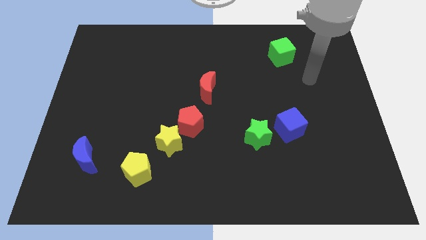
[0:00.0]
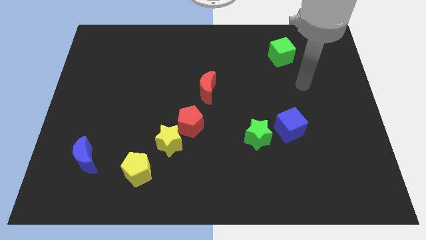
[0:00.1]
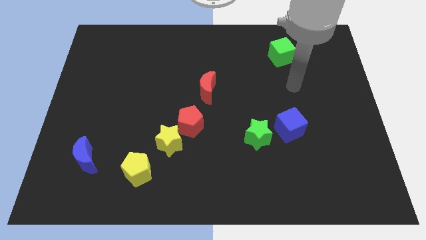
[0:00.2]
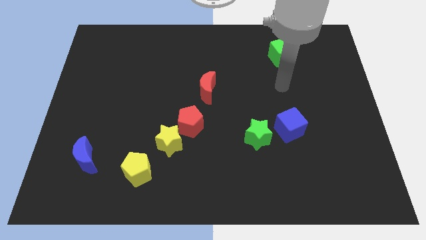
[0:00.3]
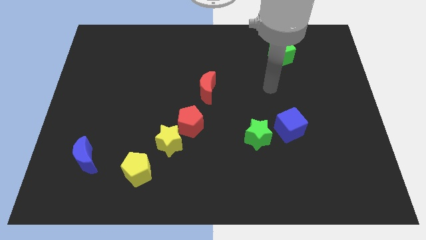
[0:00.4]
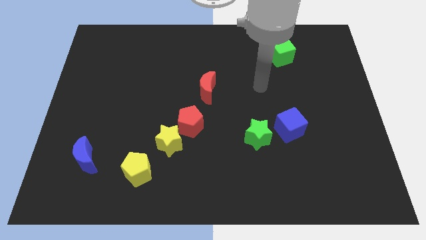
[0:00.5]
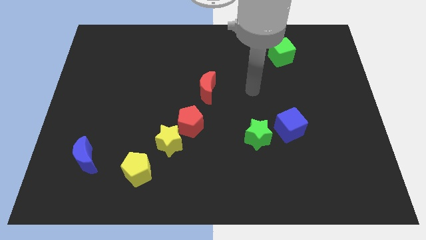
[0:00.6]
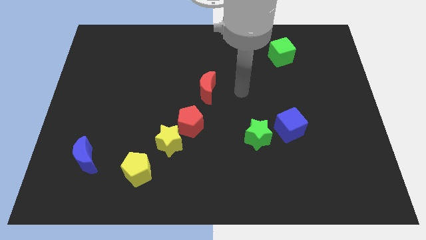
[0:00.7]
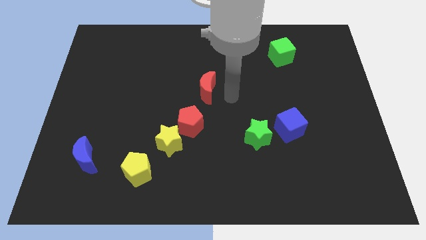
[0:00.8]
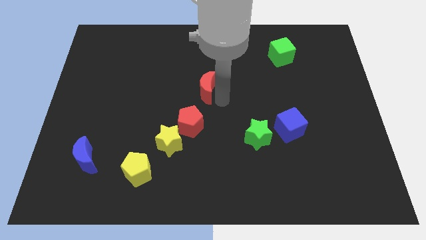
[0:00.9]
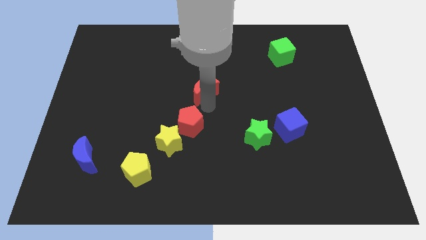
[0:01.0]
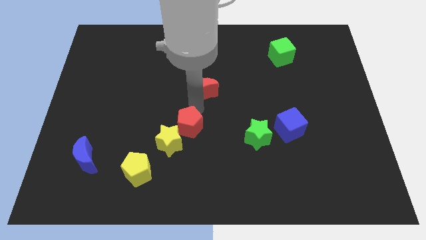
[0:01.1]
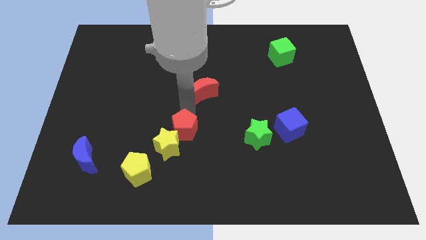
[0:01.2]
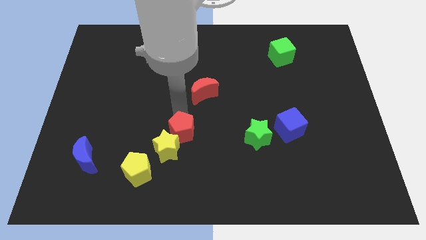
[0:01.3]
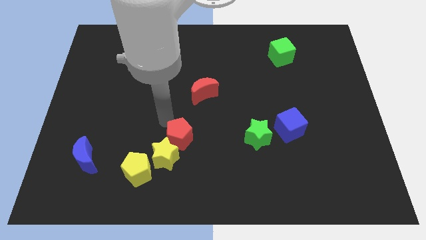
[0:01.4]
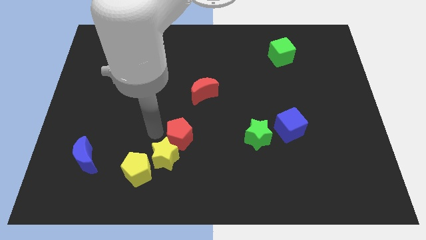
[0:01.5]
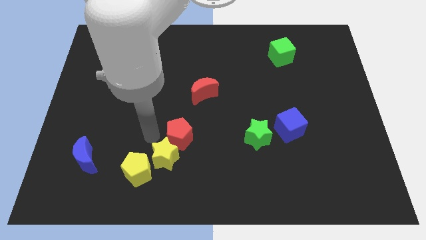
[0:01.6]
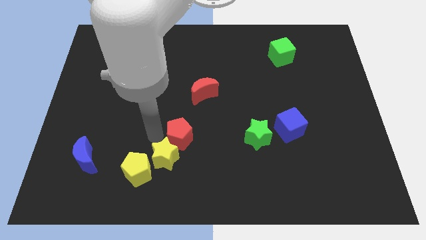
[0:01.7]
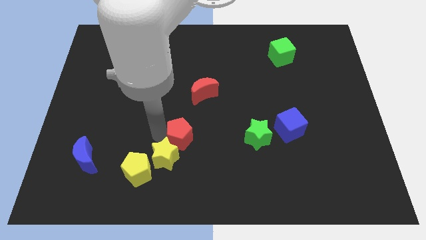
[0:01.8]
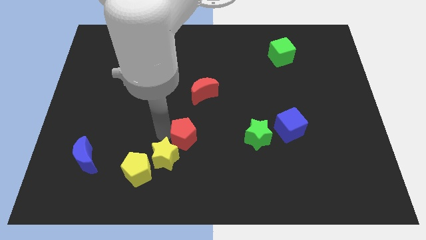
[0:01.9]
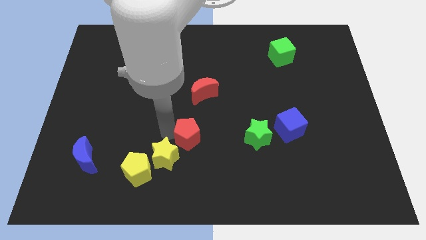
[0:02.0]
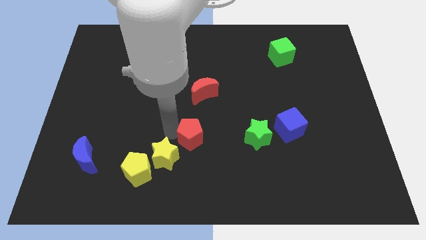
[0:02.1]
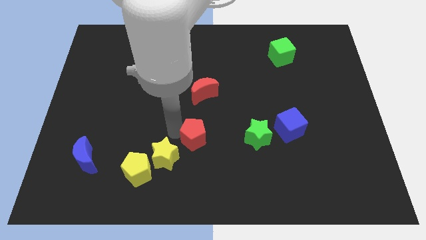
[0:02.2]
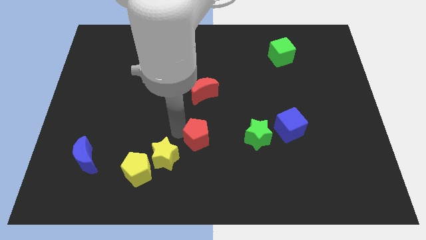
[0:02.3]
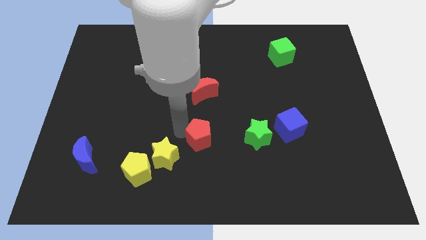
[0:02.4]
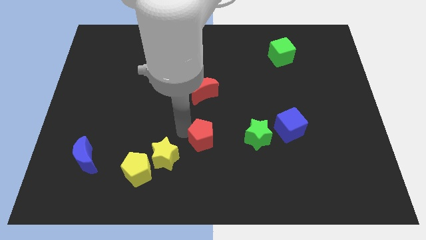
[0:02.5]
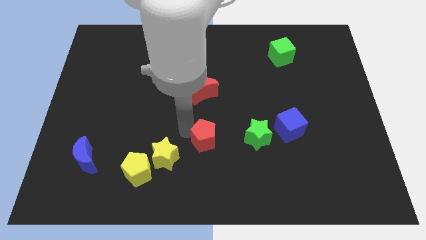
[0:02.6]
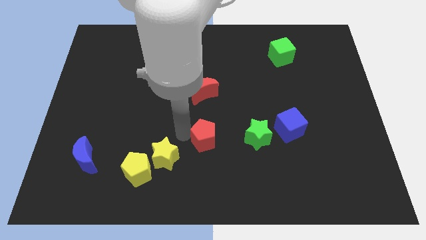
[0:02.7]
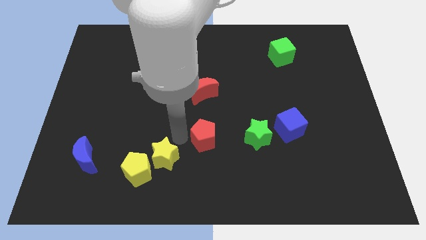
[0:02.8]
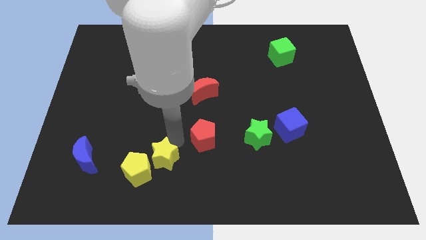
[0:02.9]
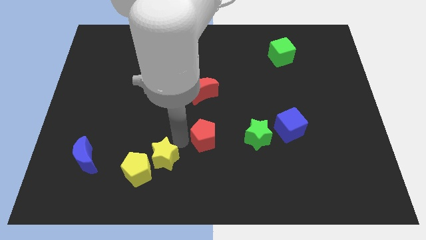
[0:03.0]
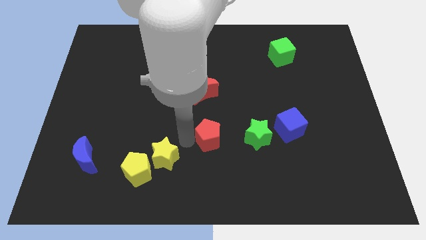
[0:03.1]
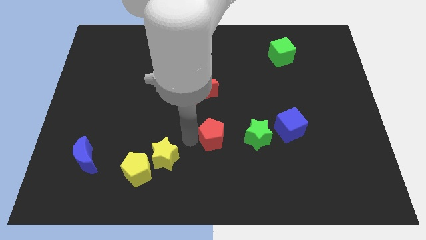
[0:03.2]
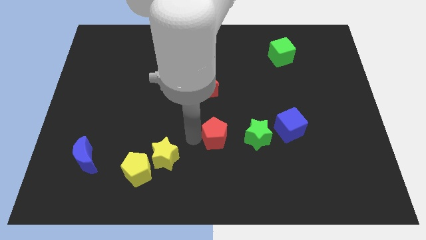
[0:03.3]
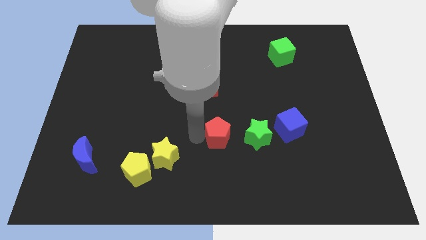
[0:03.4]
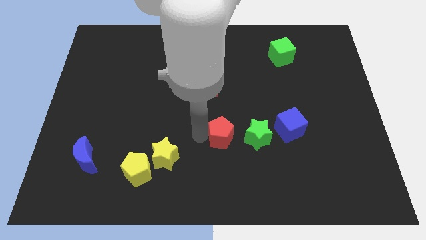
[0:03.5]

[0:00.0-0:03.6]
move the red pentagon a little downwards and to the right

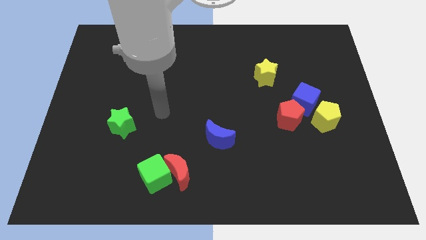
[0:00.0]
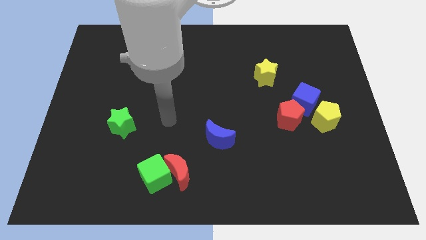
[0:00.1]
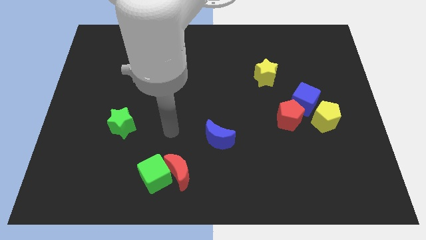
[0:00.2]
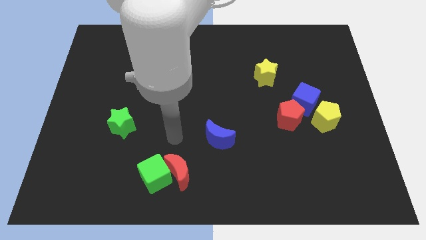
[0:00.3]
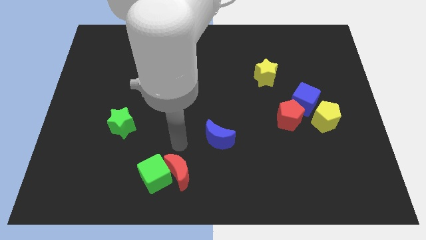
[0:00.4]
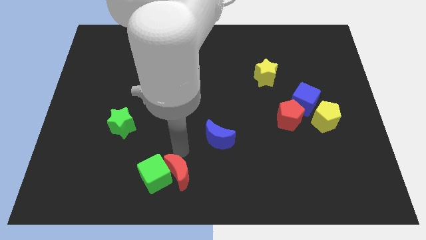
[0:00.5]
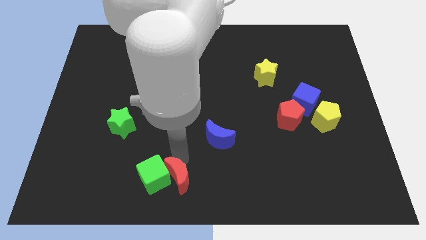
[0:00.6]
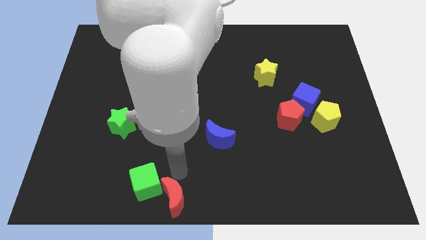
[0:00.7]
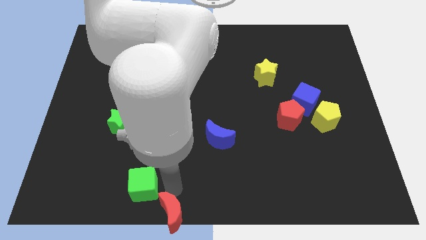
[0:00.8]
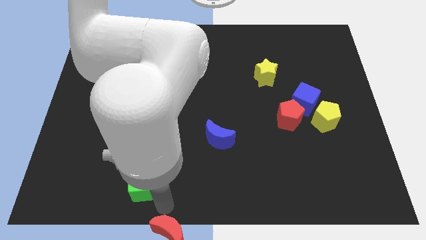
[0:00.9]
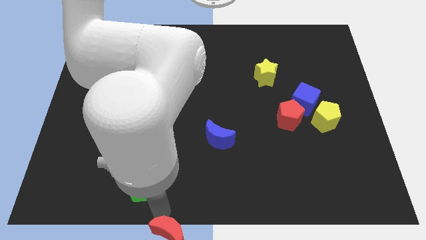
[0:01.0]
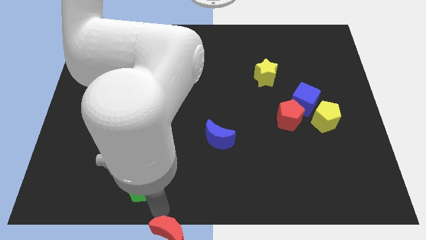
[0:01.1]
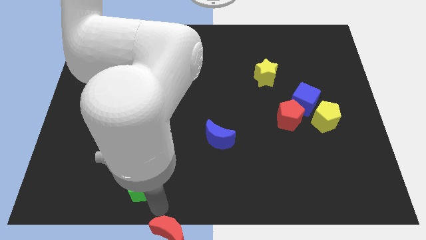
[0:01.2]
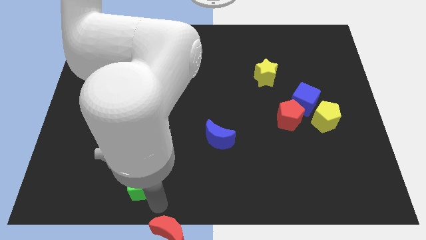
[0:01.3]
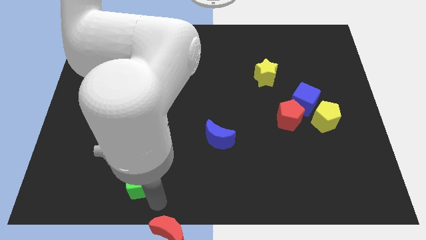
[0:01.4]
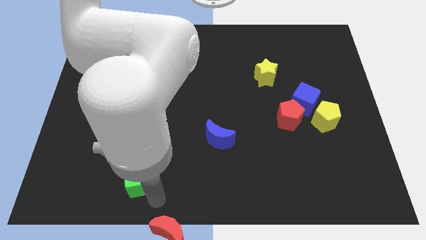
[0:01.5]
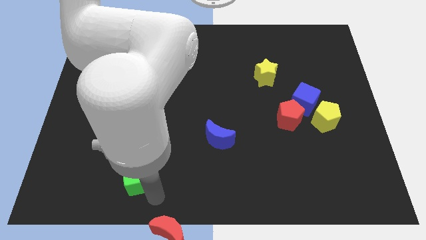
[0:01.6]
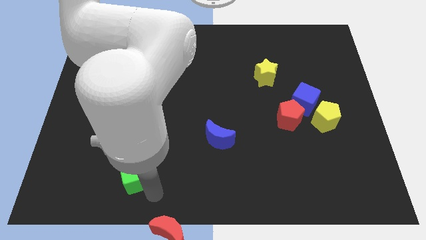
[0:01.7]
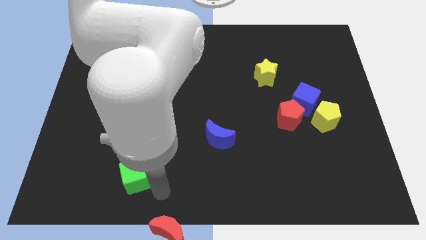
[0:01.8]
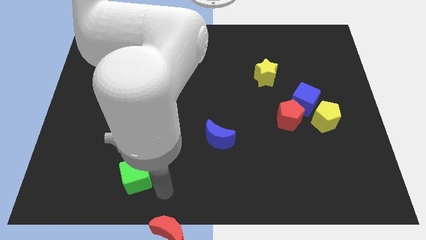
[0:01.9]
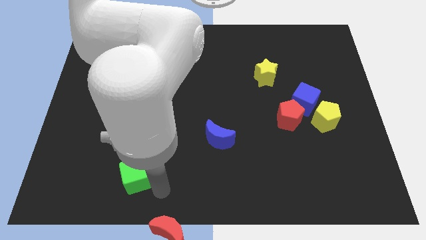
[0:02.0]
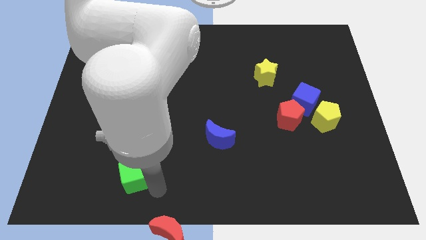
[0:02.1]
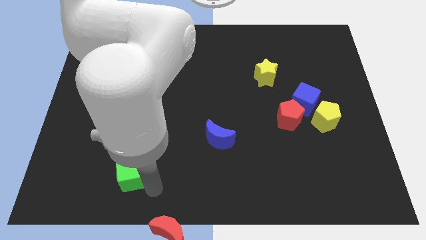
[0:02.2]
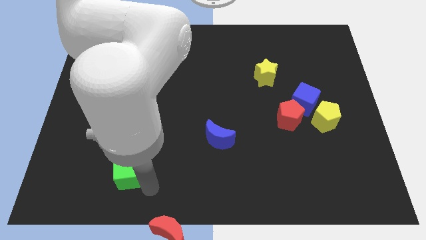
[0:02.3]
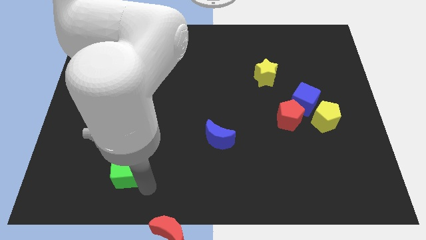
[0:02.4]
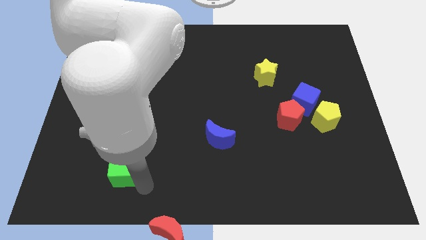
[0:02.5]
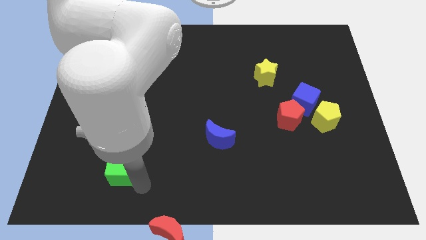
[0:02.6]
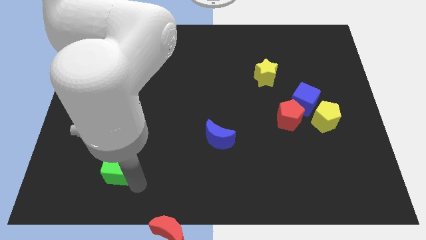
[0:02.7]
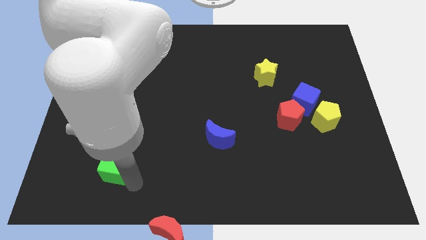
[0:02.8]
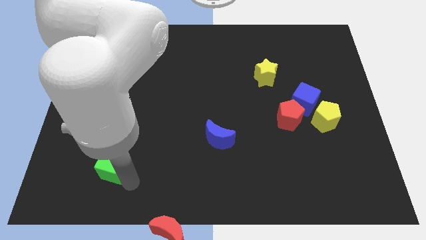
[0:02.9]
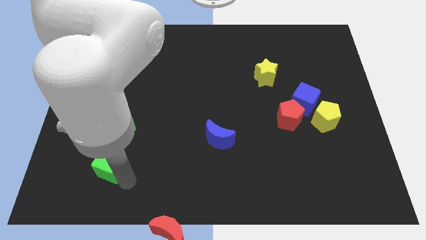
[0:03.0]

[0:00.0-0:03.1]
push the green cube up and then left slightly

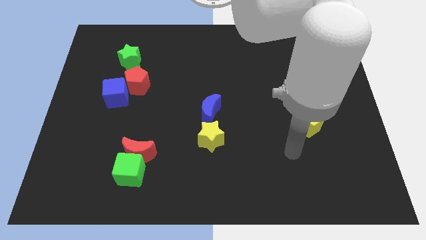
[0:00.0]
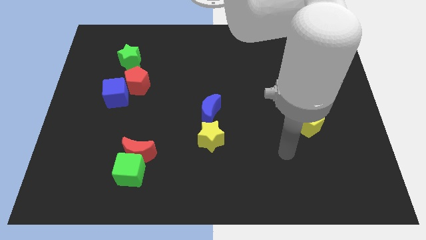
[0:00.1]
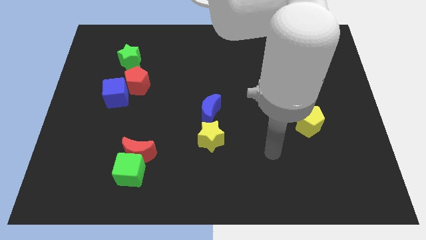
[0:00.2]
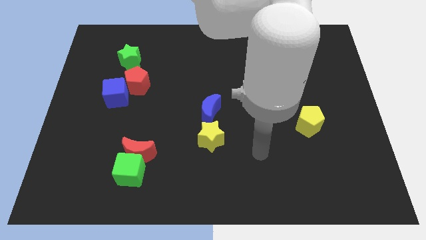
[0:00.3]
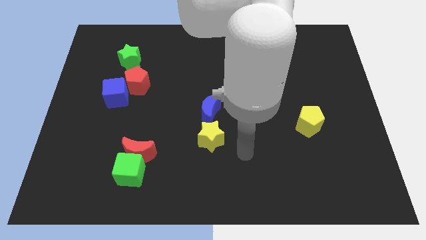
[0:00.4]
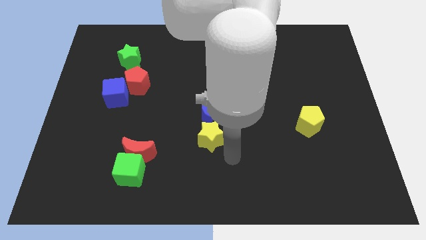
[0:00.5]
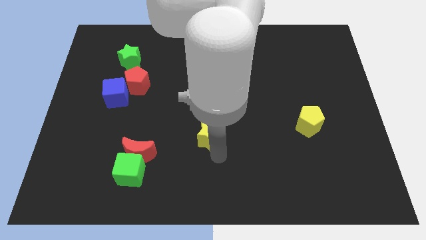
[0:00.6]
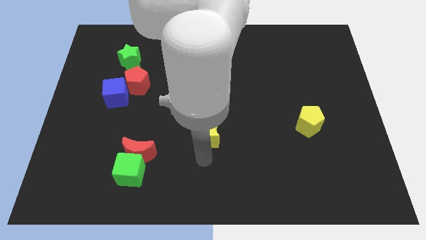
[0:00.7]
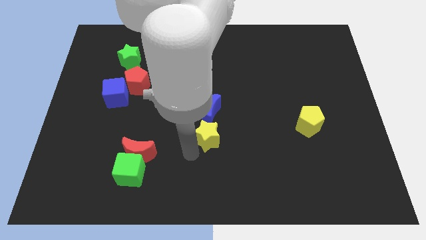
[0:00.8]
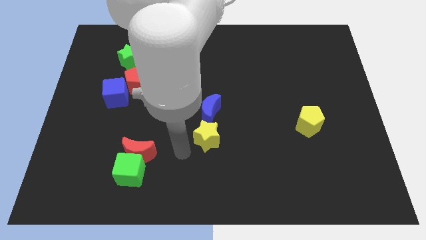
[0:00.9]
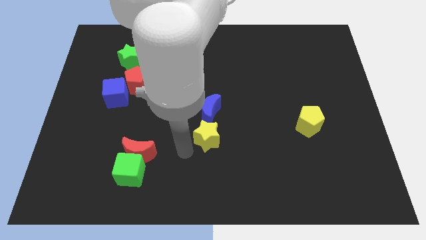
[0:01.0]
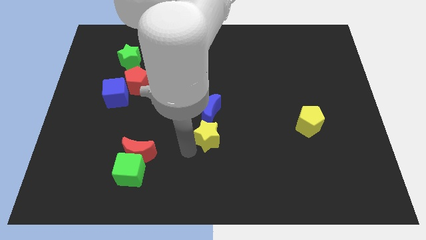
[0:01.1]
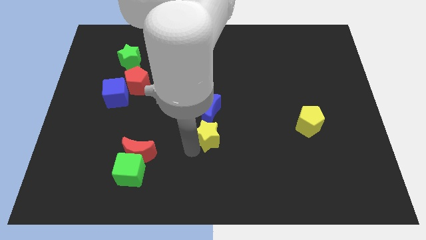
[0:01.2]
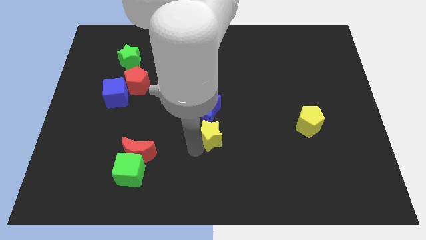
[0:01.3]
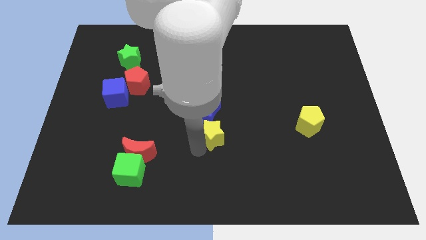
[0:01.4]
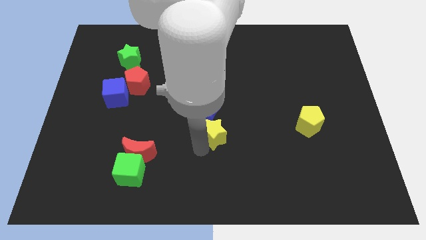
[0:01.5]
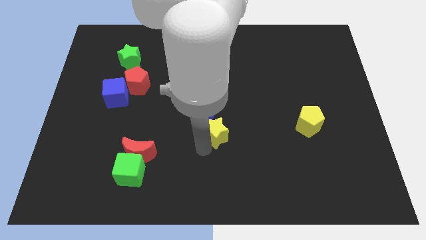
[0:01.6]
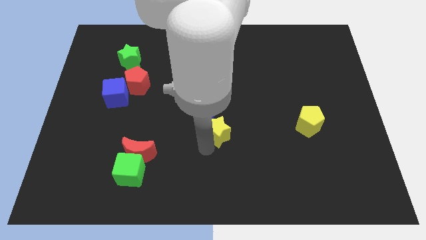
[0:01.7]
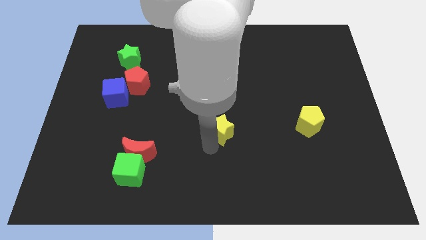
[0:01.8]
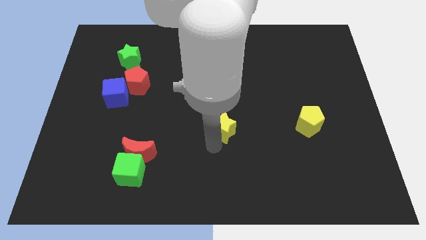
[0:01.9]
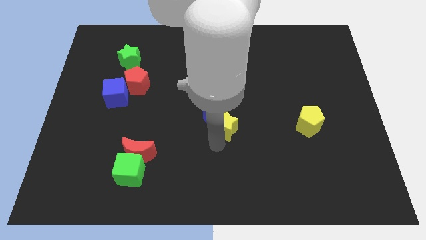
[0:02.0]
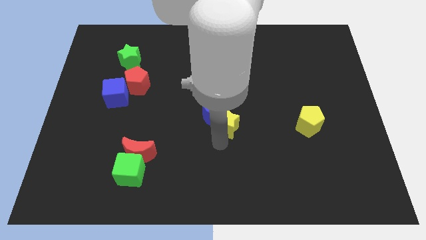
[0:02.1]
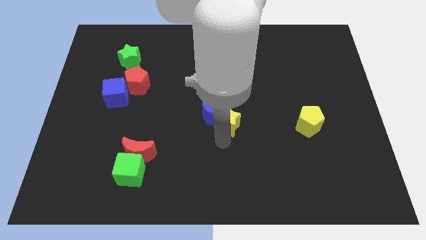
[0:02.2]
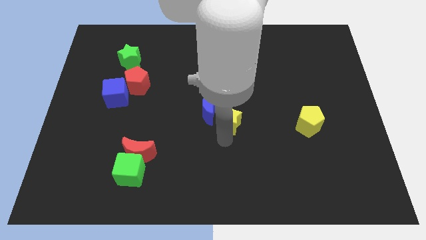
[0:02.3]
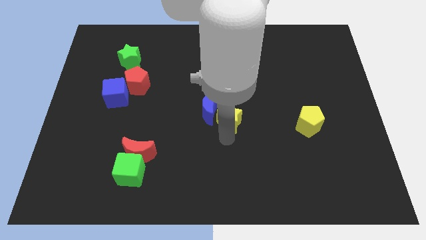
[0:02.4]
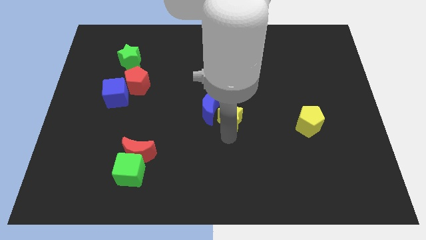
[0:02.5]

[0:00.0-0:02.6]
slightly push the yellow star upwards and right diagonally
